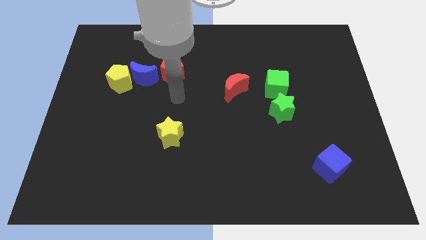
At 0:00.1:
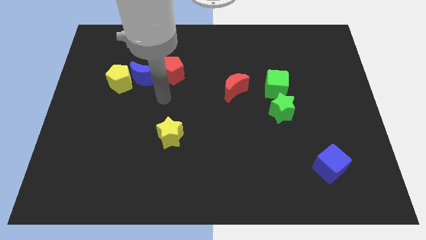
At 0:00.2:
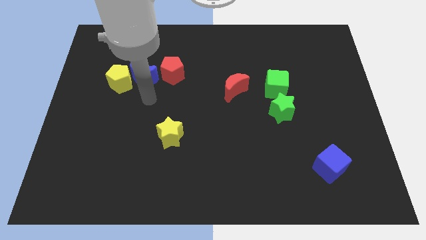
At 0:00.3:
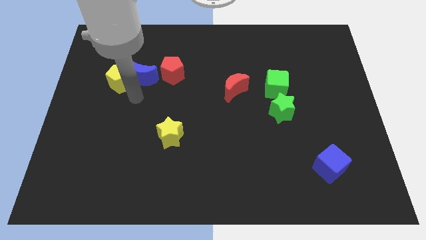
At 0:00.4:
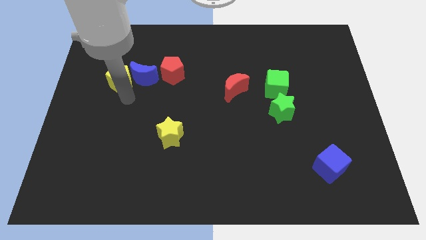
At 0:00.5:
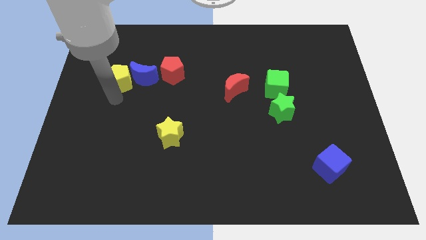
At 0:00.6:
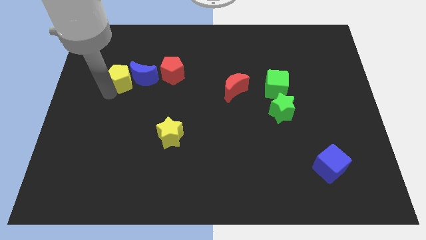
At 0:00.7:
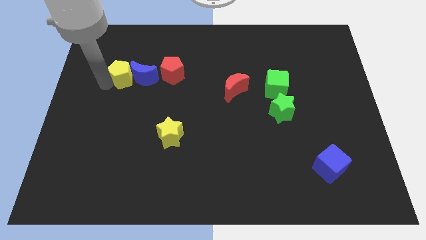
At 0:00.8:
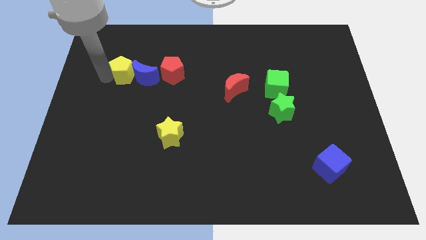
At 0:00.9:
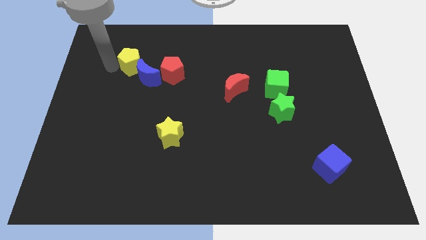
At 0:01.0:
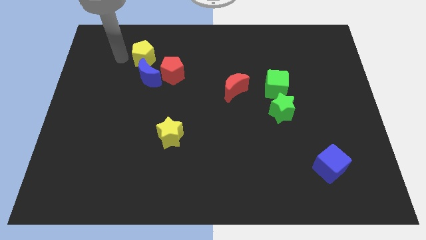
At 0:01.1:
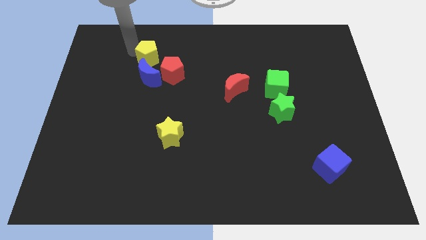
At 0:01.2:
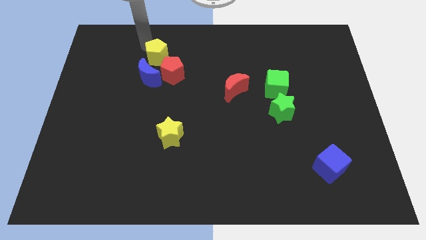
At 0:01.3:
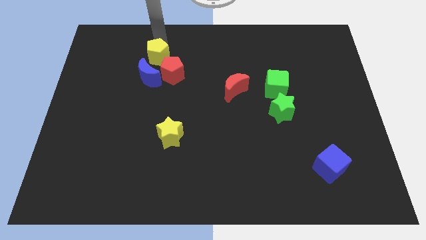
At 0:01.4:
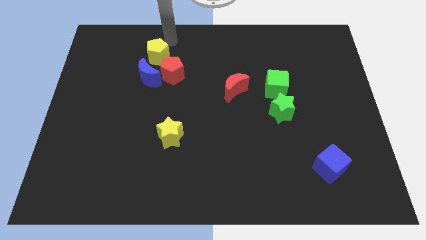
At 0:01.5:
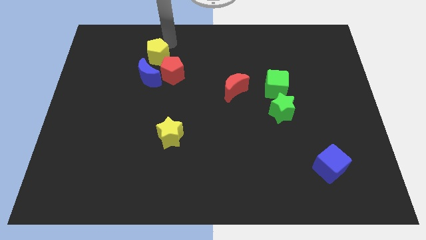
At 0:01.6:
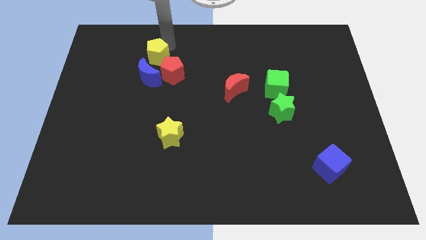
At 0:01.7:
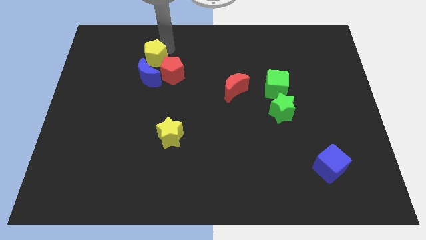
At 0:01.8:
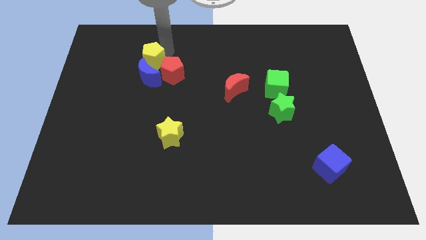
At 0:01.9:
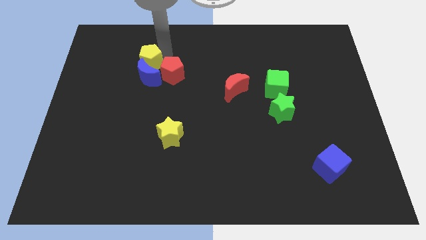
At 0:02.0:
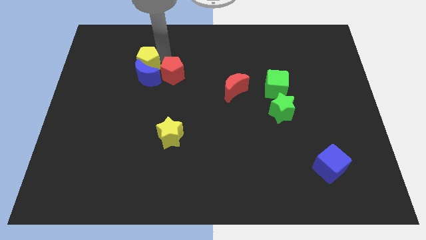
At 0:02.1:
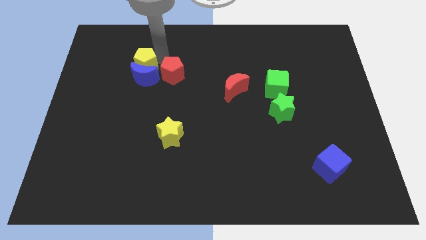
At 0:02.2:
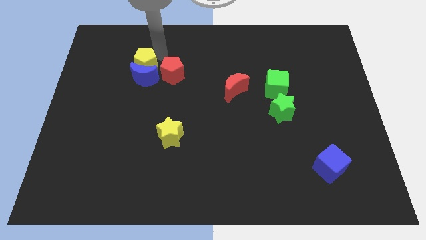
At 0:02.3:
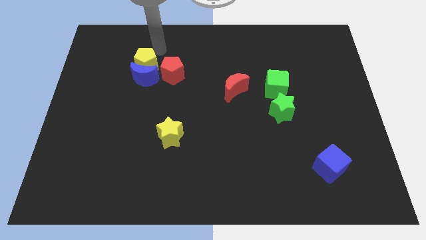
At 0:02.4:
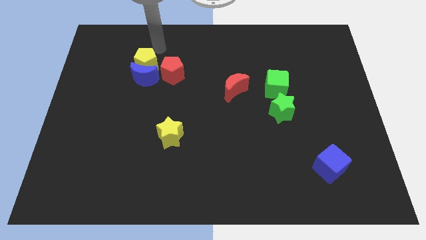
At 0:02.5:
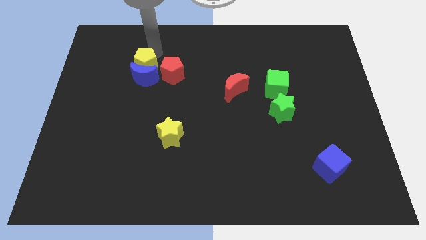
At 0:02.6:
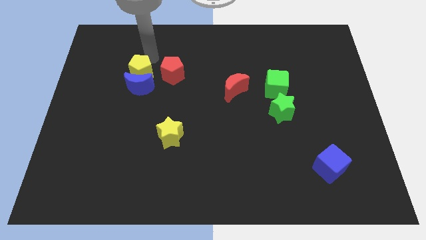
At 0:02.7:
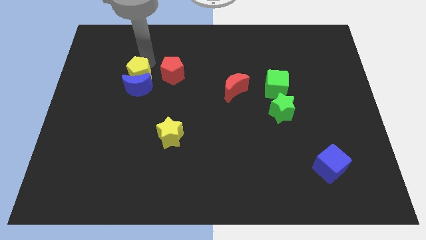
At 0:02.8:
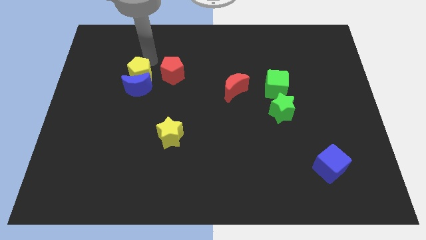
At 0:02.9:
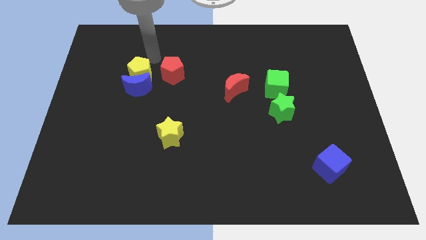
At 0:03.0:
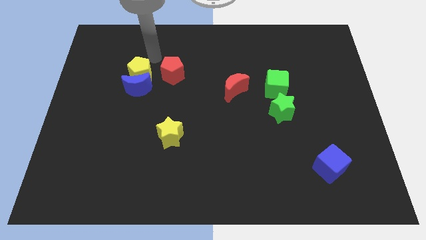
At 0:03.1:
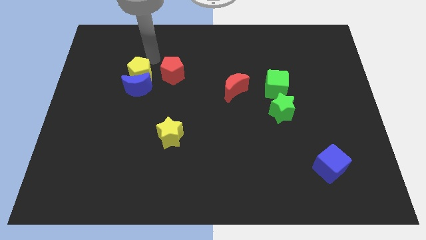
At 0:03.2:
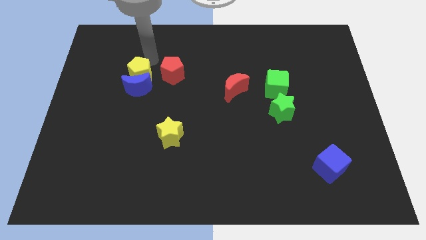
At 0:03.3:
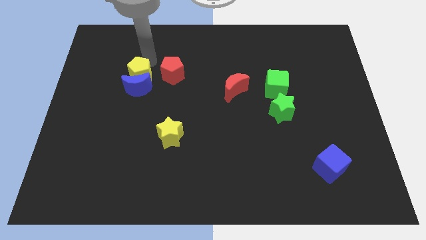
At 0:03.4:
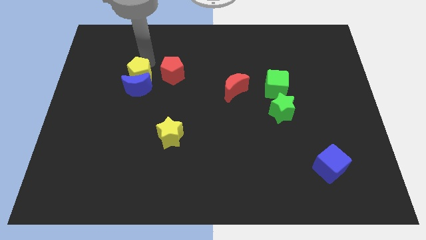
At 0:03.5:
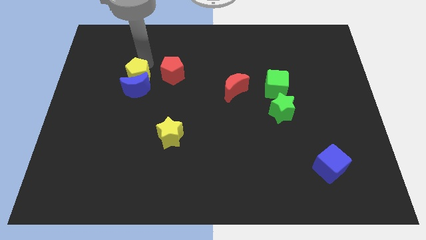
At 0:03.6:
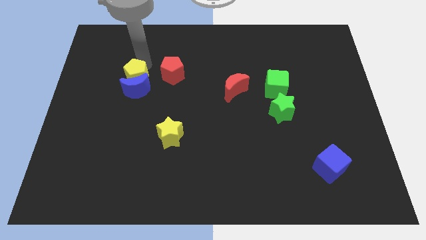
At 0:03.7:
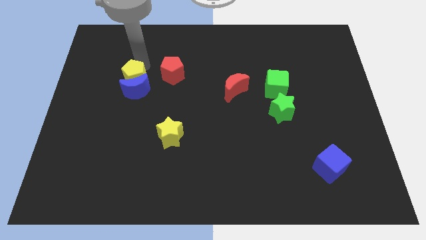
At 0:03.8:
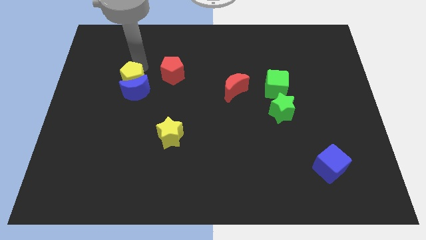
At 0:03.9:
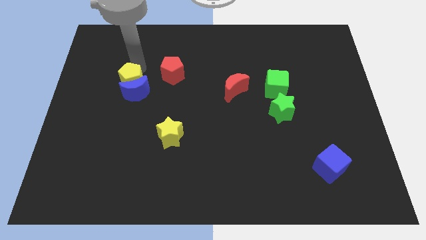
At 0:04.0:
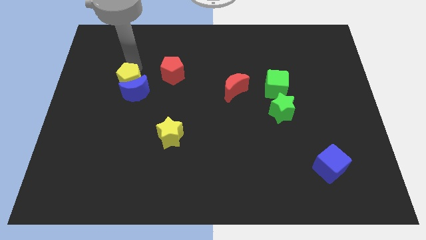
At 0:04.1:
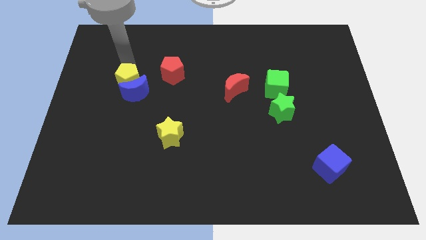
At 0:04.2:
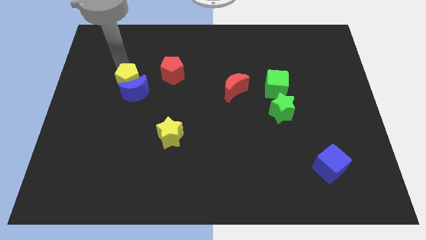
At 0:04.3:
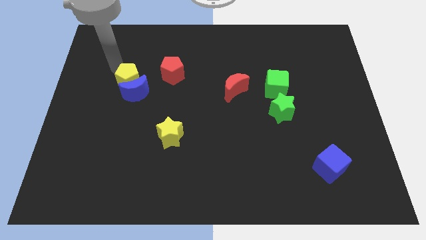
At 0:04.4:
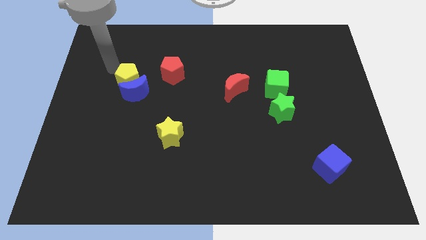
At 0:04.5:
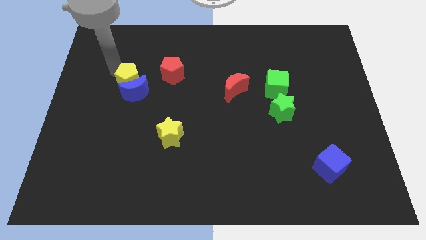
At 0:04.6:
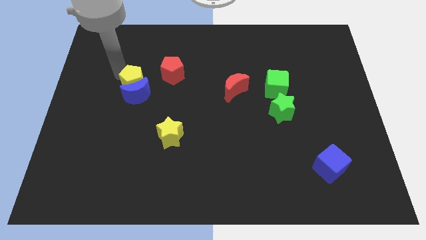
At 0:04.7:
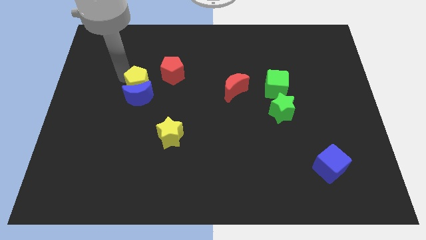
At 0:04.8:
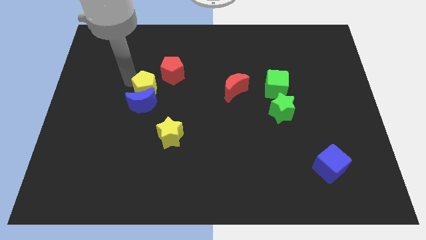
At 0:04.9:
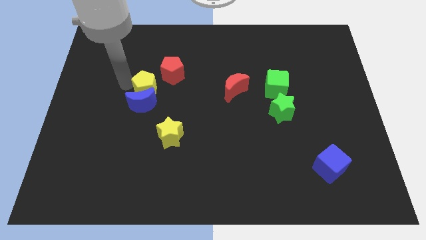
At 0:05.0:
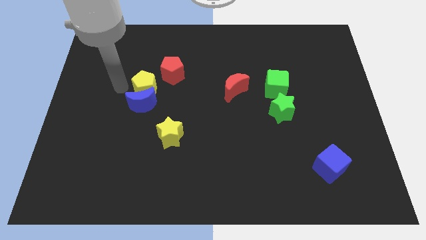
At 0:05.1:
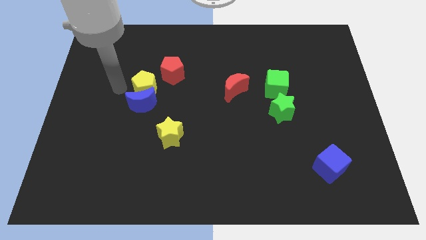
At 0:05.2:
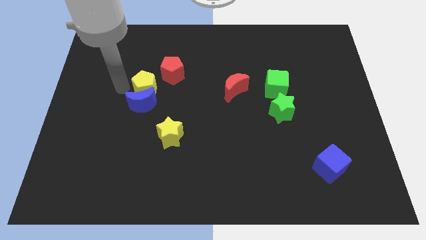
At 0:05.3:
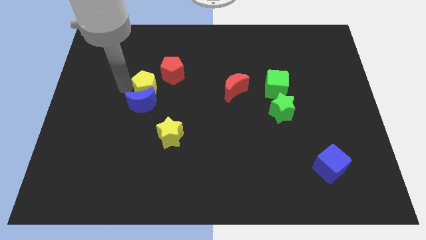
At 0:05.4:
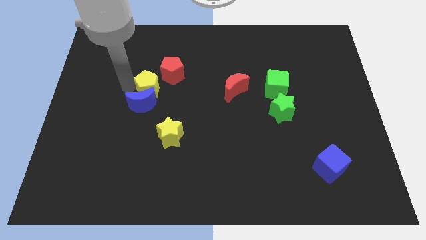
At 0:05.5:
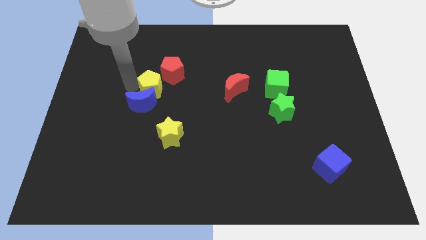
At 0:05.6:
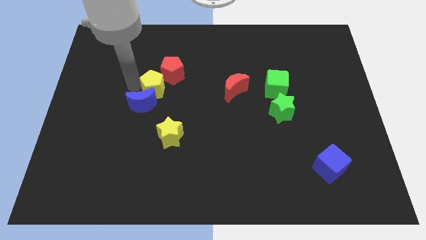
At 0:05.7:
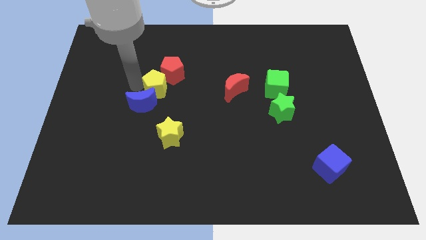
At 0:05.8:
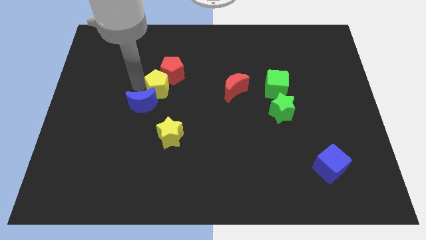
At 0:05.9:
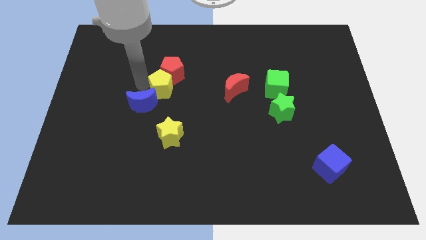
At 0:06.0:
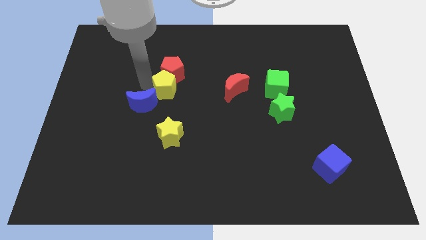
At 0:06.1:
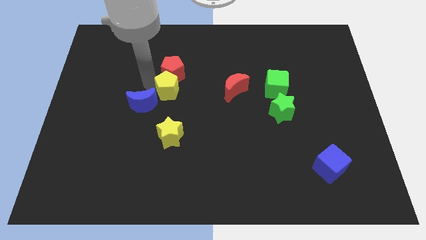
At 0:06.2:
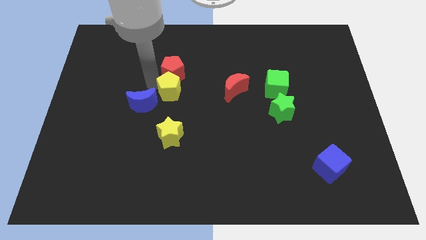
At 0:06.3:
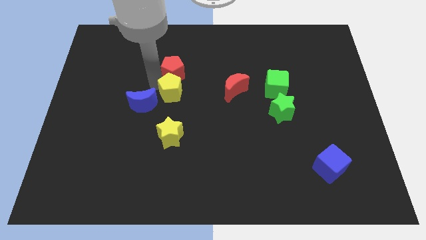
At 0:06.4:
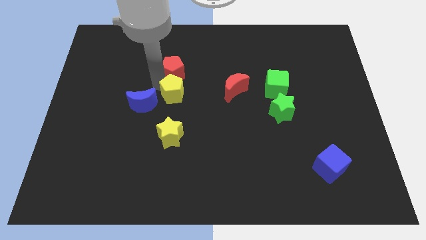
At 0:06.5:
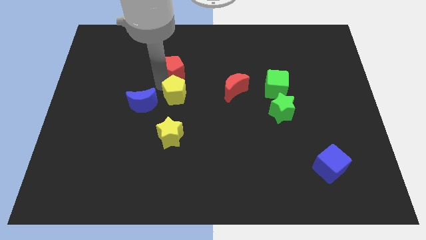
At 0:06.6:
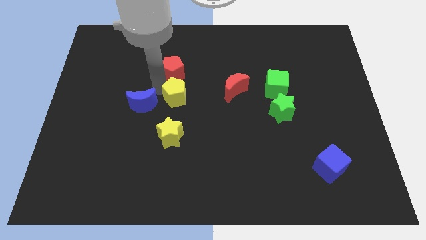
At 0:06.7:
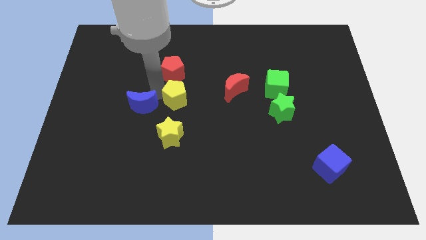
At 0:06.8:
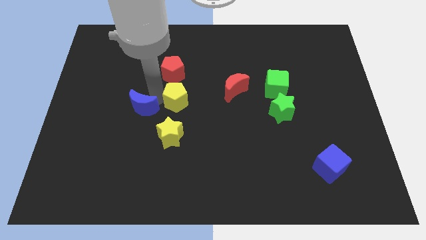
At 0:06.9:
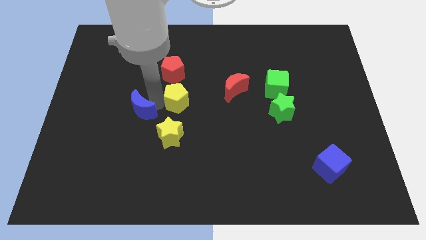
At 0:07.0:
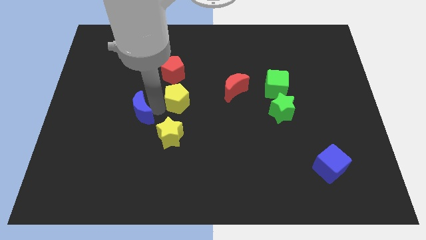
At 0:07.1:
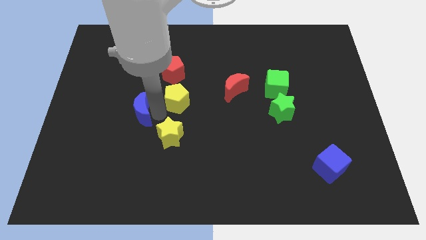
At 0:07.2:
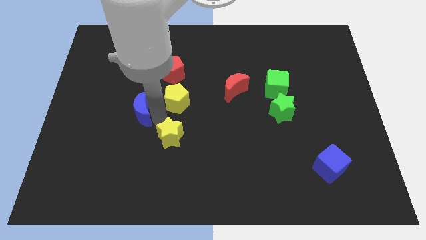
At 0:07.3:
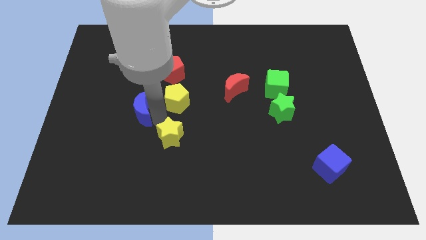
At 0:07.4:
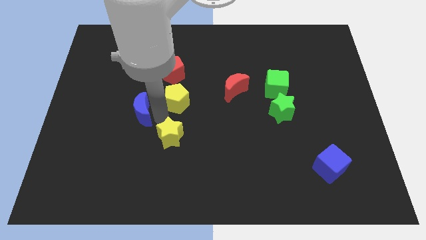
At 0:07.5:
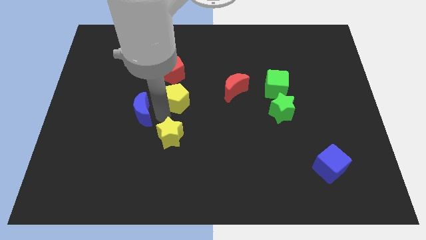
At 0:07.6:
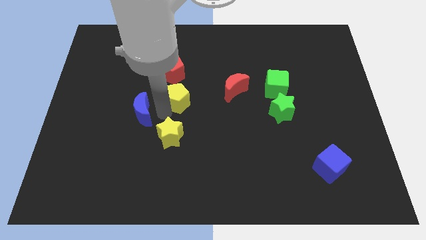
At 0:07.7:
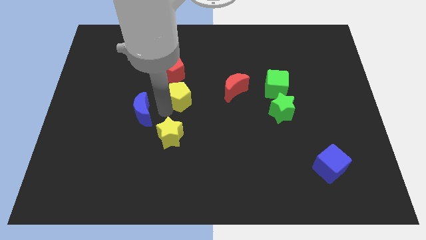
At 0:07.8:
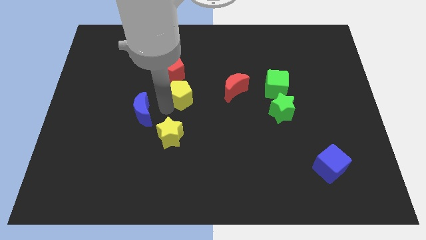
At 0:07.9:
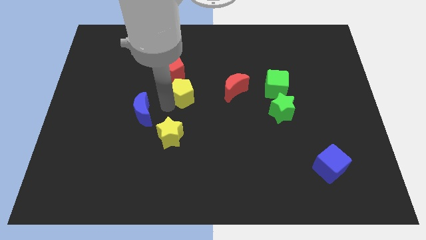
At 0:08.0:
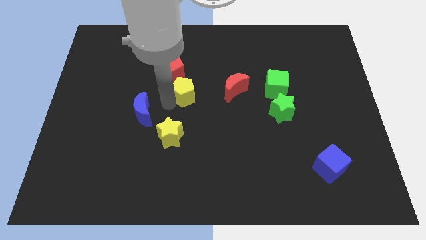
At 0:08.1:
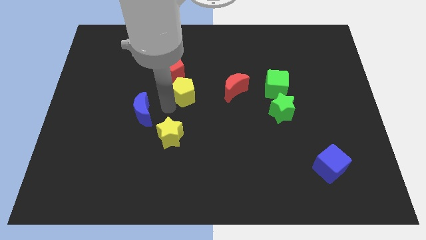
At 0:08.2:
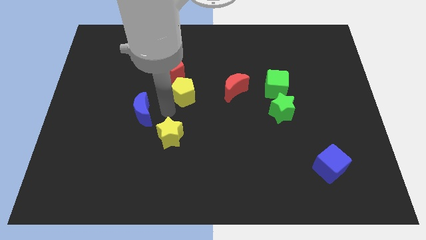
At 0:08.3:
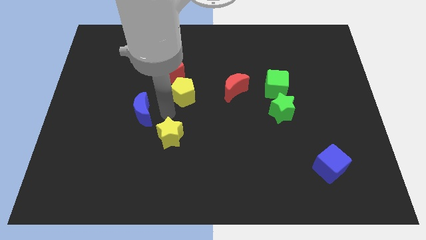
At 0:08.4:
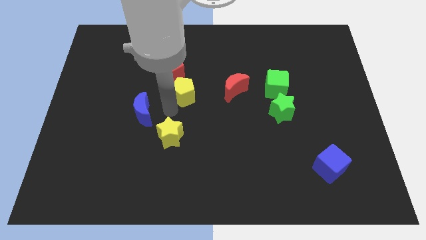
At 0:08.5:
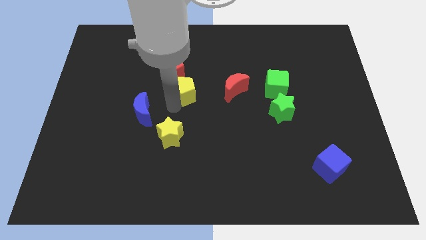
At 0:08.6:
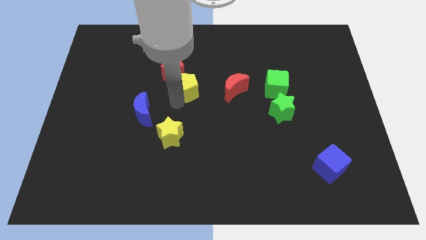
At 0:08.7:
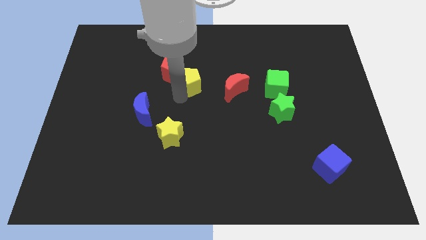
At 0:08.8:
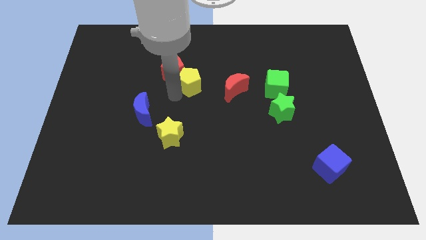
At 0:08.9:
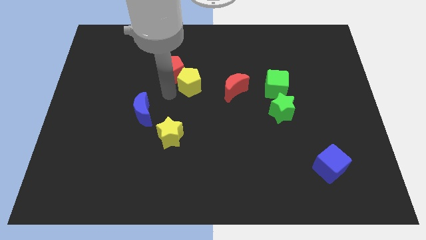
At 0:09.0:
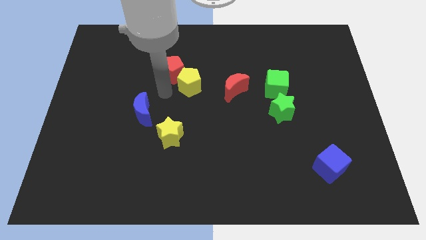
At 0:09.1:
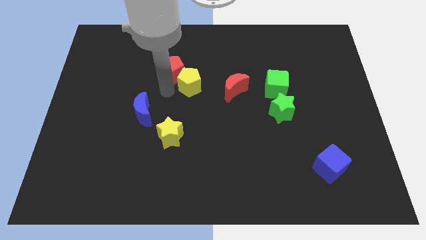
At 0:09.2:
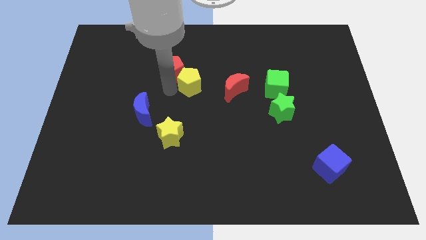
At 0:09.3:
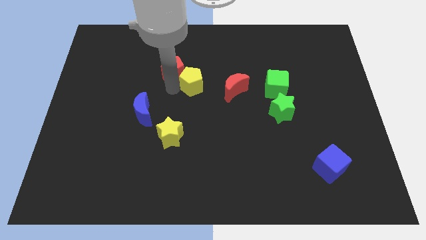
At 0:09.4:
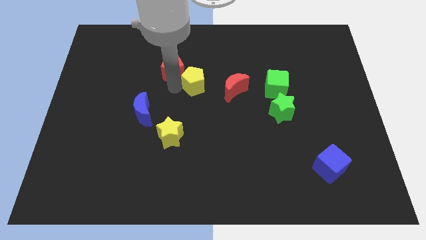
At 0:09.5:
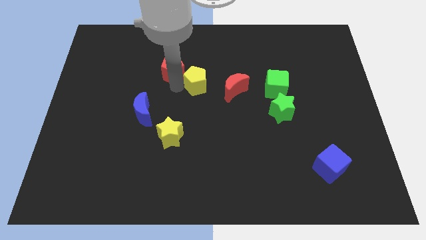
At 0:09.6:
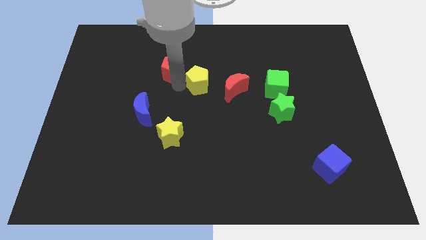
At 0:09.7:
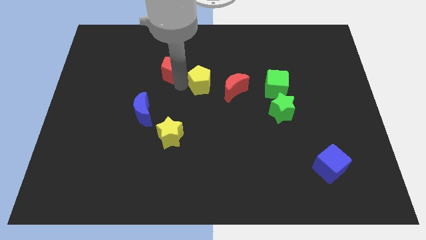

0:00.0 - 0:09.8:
push the yellow pentagon right
